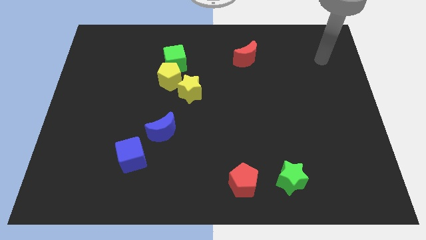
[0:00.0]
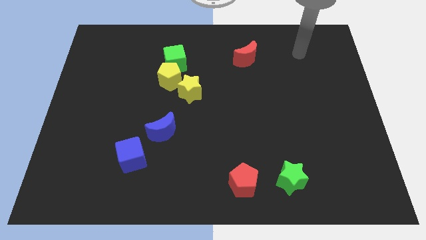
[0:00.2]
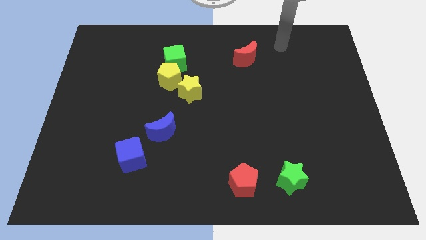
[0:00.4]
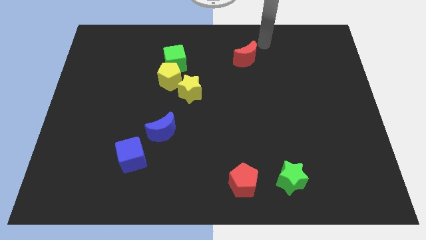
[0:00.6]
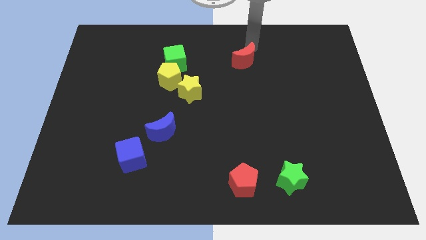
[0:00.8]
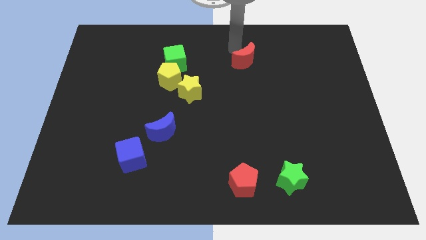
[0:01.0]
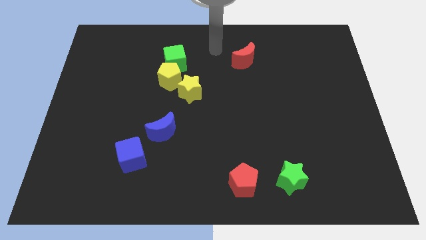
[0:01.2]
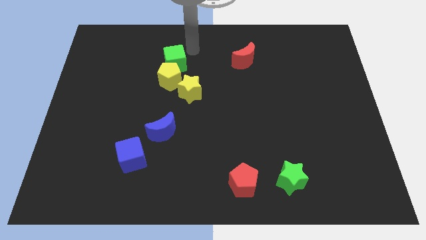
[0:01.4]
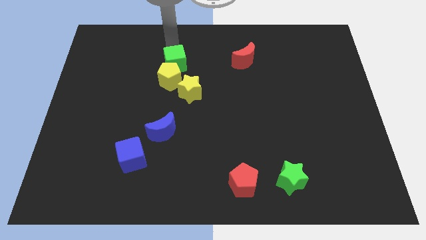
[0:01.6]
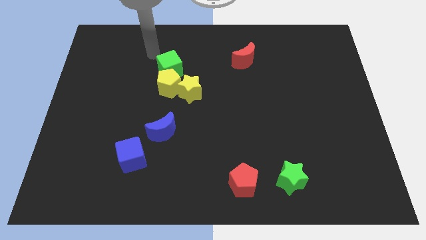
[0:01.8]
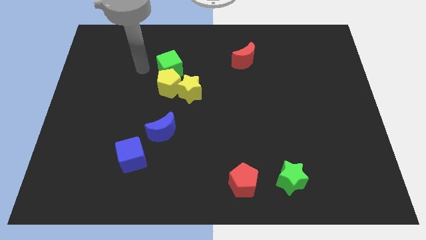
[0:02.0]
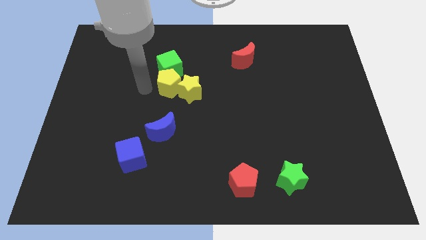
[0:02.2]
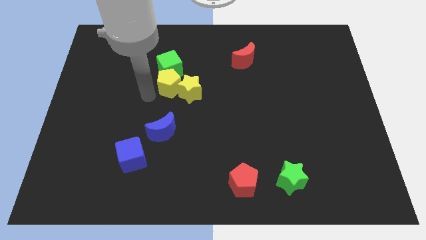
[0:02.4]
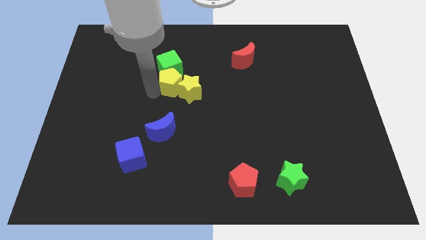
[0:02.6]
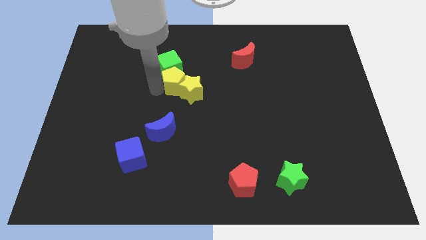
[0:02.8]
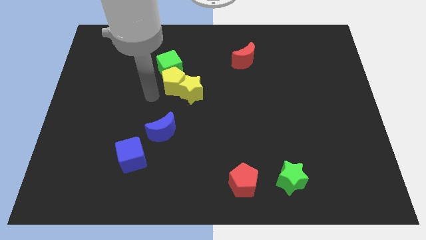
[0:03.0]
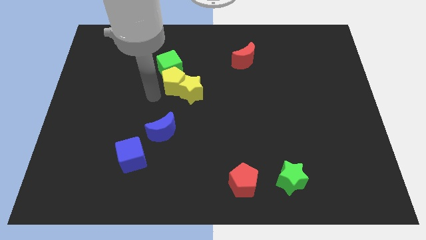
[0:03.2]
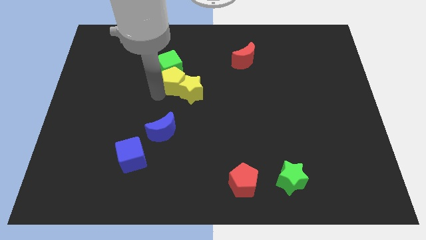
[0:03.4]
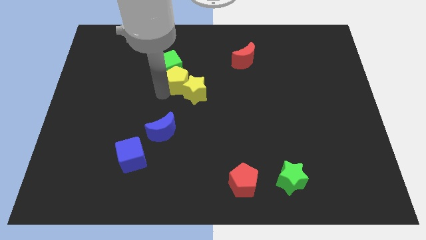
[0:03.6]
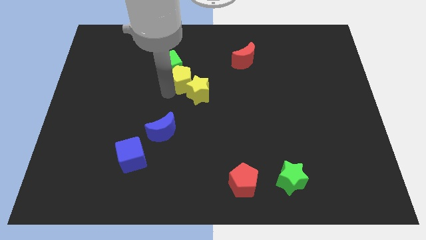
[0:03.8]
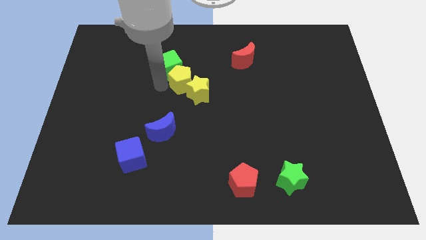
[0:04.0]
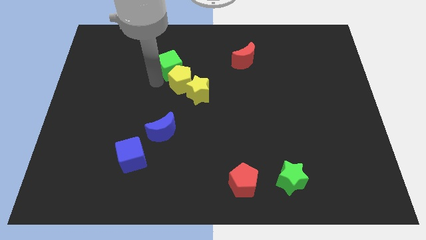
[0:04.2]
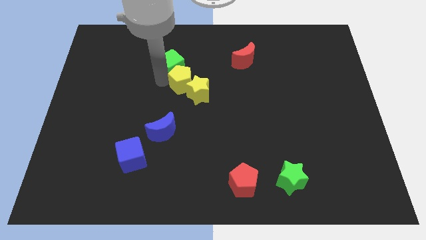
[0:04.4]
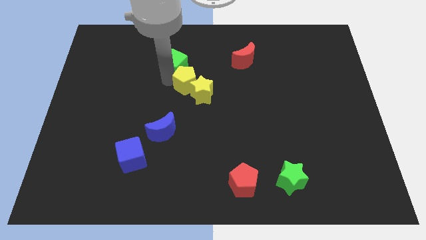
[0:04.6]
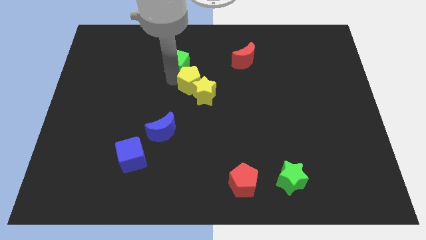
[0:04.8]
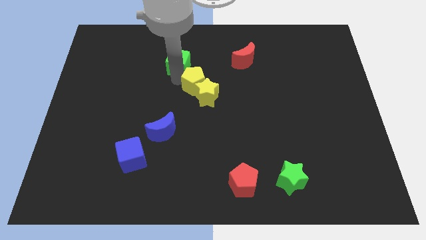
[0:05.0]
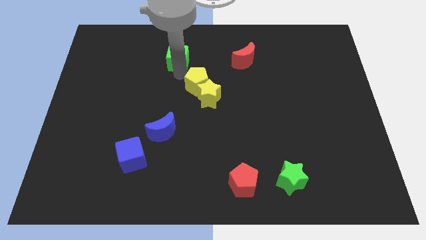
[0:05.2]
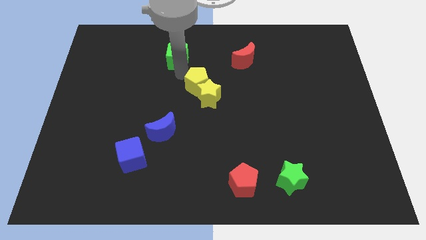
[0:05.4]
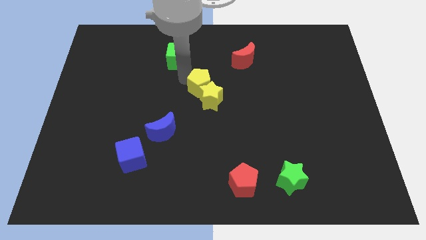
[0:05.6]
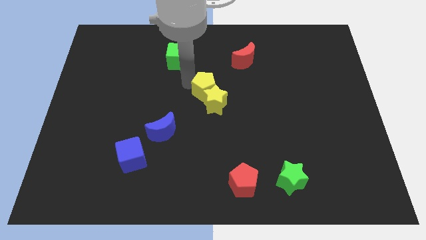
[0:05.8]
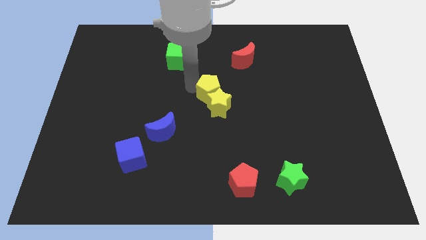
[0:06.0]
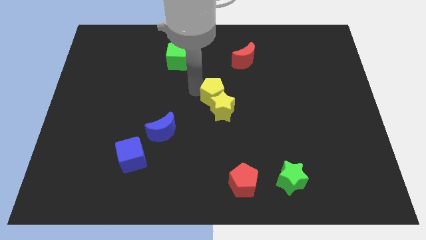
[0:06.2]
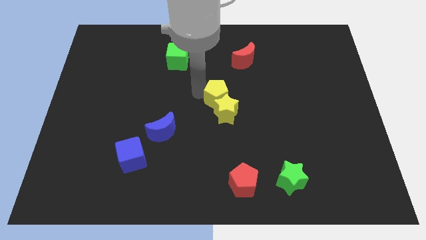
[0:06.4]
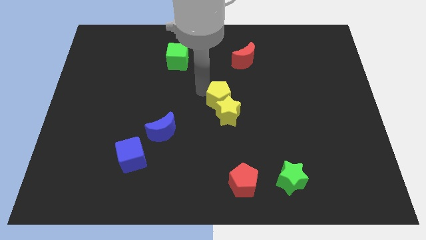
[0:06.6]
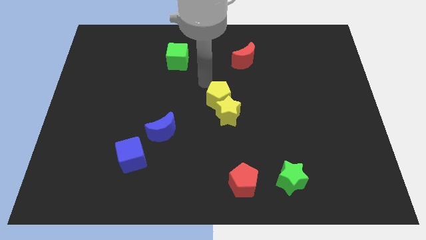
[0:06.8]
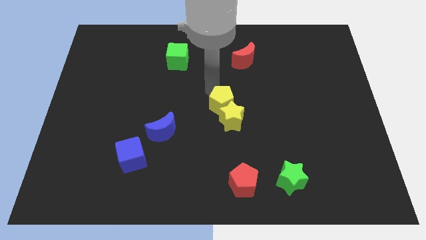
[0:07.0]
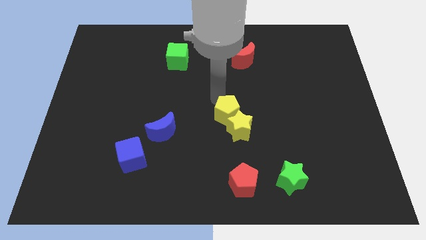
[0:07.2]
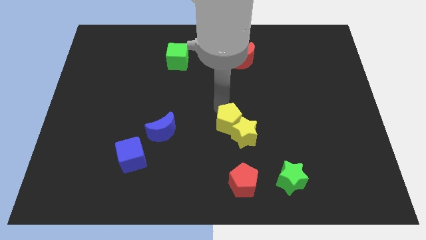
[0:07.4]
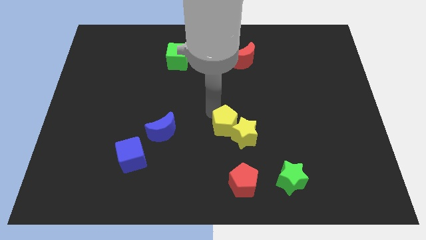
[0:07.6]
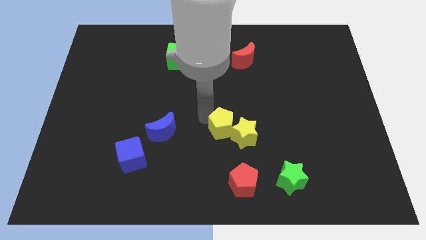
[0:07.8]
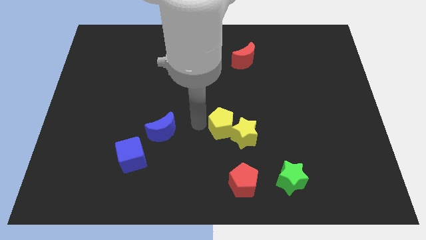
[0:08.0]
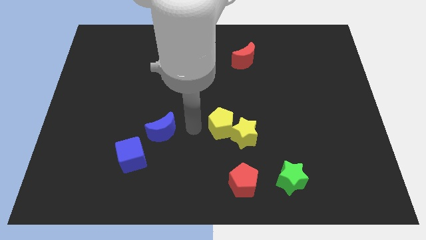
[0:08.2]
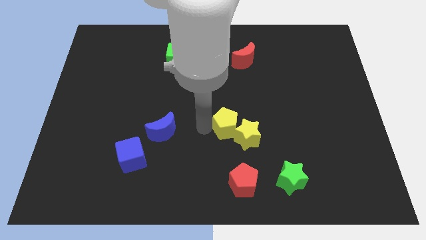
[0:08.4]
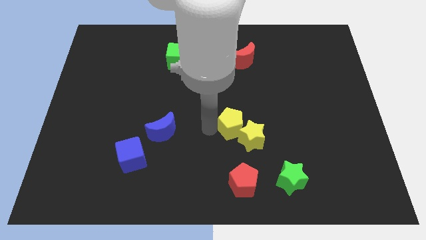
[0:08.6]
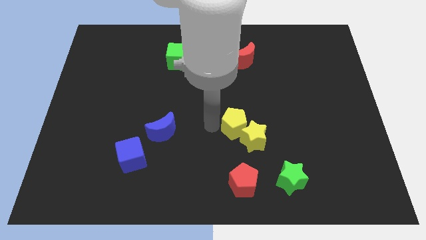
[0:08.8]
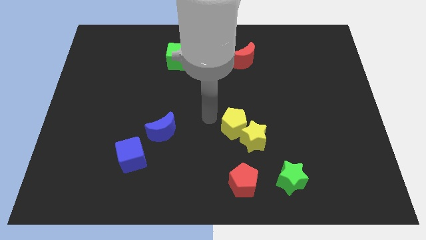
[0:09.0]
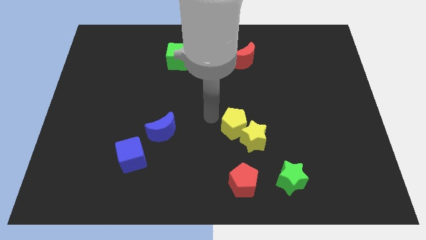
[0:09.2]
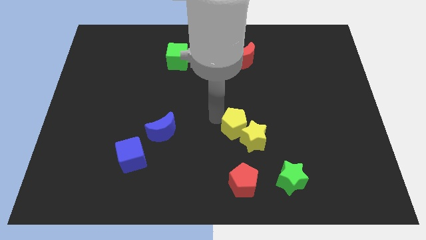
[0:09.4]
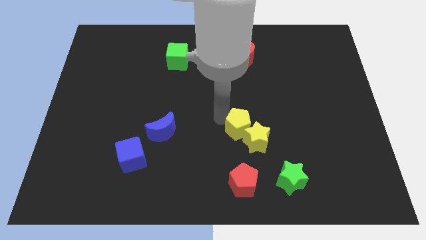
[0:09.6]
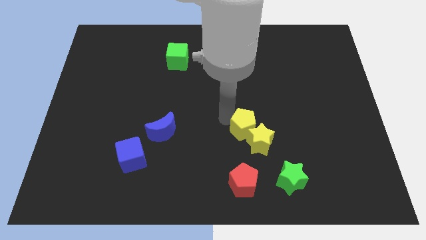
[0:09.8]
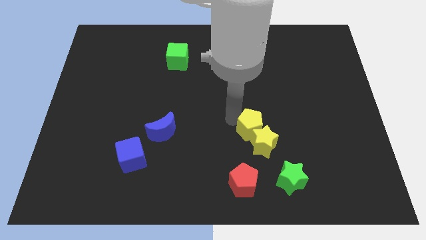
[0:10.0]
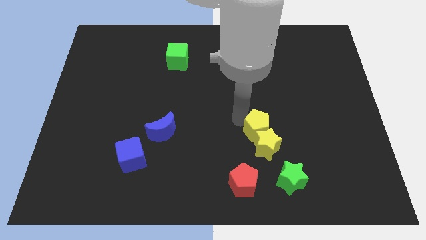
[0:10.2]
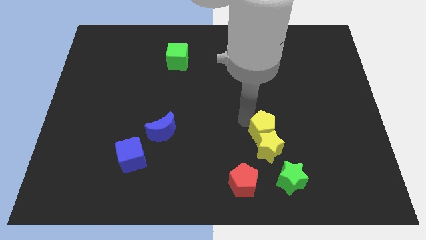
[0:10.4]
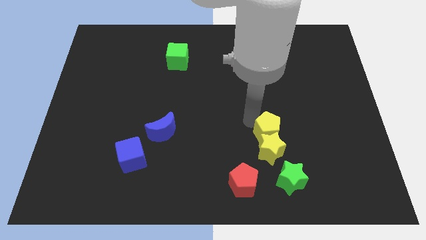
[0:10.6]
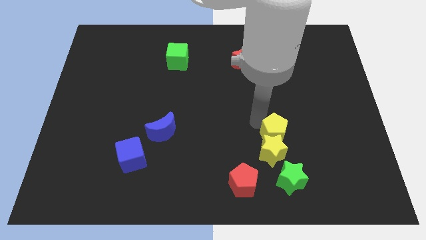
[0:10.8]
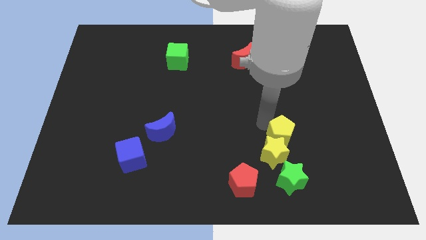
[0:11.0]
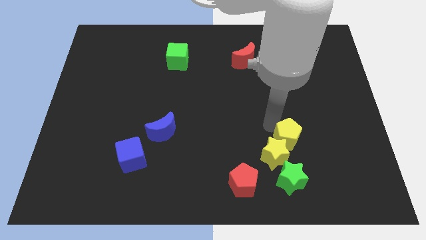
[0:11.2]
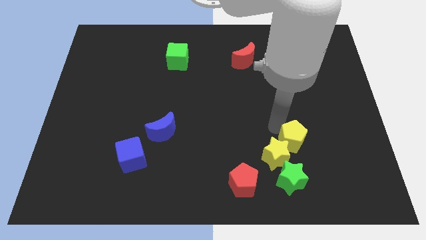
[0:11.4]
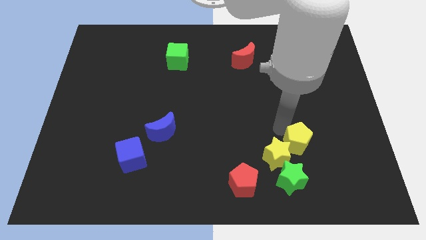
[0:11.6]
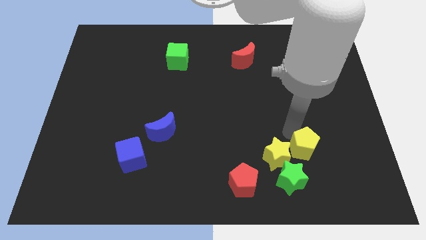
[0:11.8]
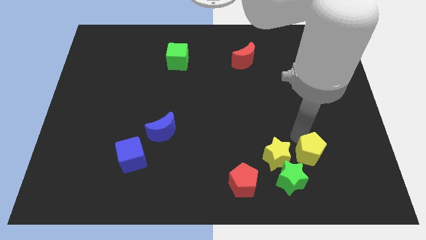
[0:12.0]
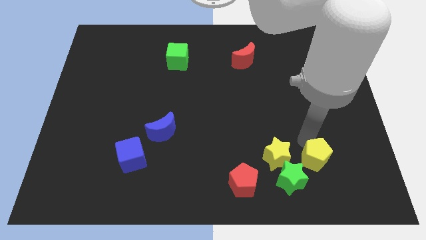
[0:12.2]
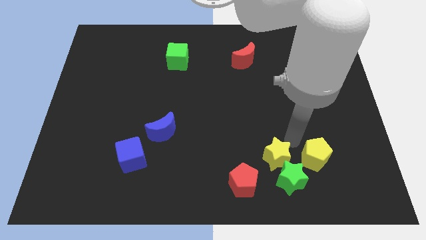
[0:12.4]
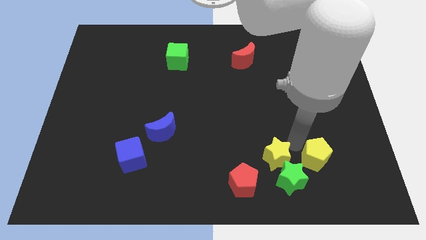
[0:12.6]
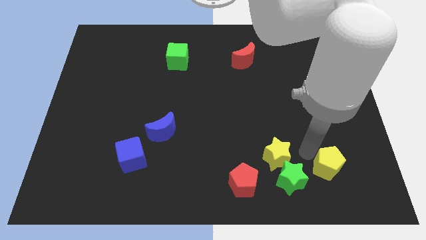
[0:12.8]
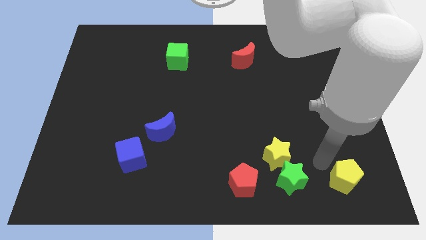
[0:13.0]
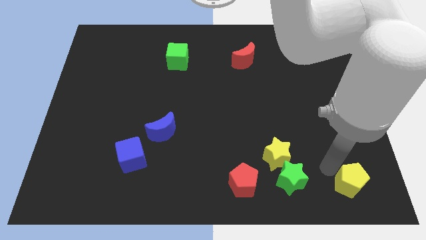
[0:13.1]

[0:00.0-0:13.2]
slide the yellow pentagon to the bottom right of the board
